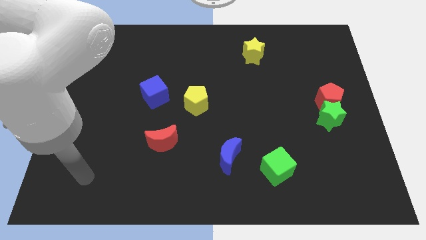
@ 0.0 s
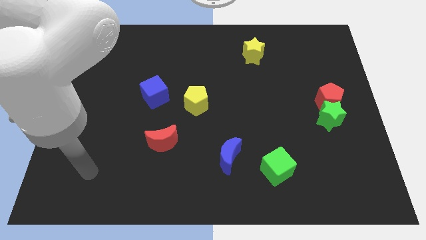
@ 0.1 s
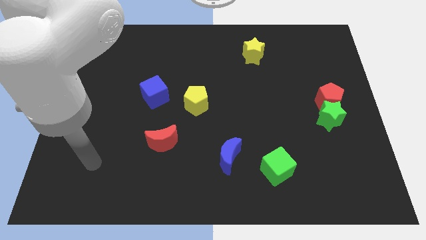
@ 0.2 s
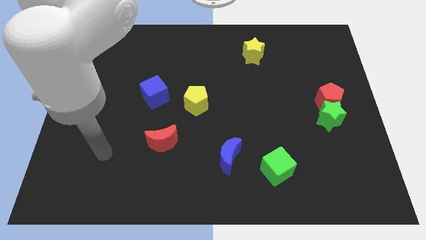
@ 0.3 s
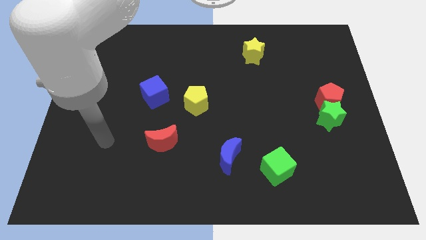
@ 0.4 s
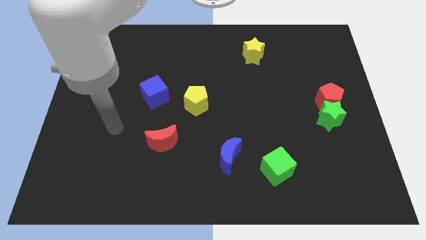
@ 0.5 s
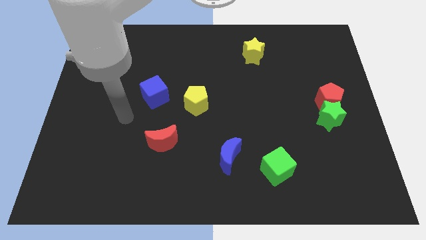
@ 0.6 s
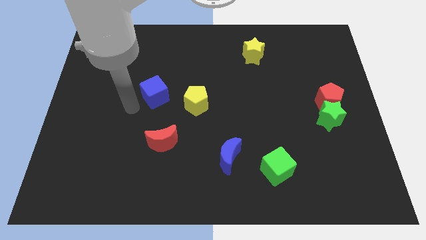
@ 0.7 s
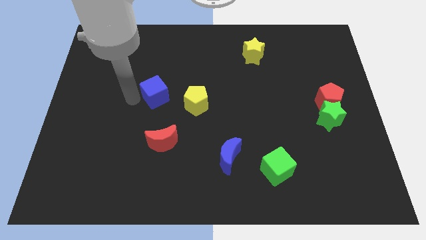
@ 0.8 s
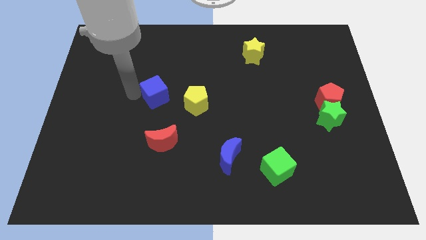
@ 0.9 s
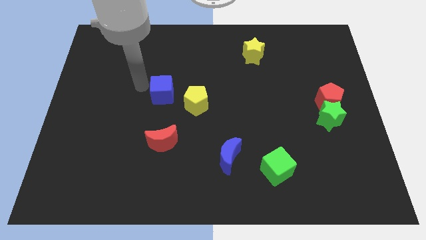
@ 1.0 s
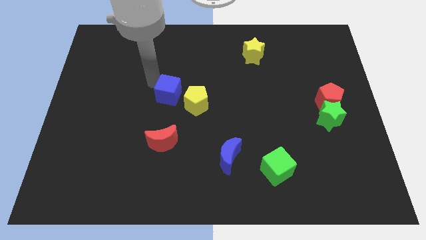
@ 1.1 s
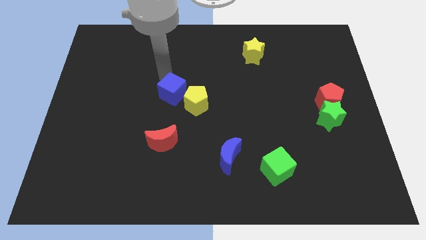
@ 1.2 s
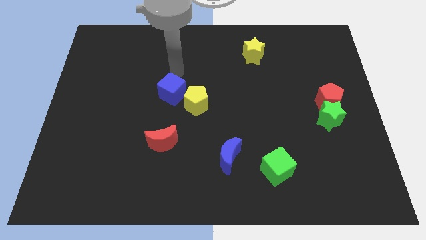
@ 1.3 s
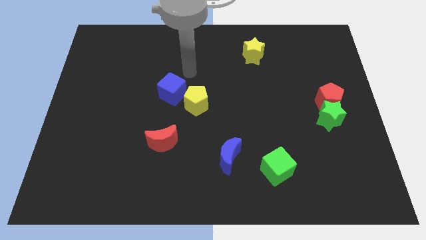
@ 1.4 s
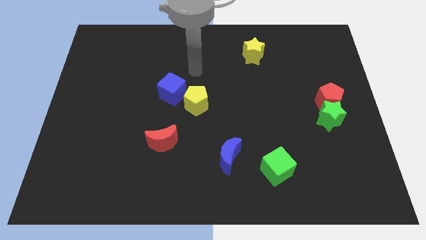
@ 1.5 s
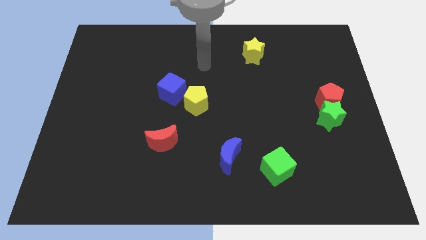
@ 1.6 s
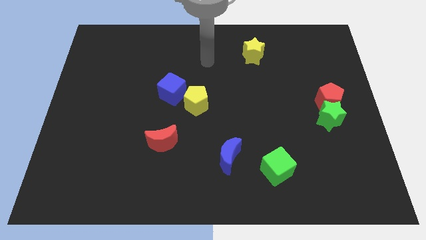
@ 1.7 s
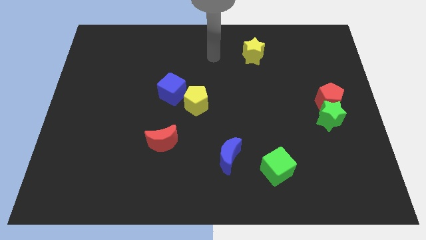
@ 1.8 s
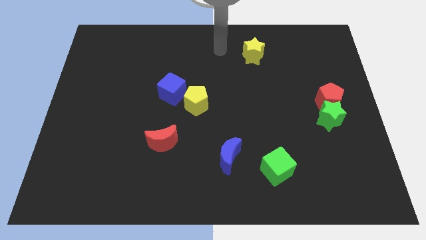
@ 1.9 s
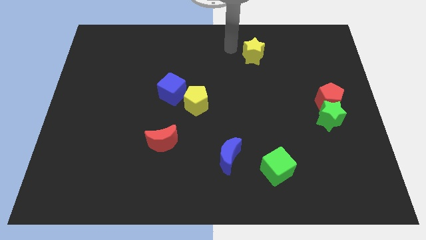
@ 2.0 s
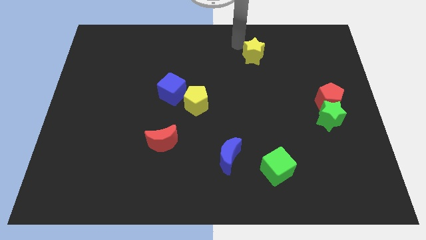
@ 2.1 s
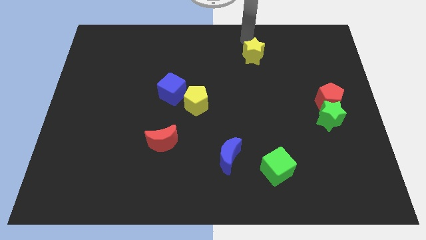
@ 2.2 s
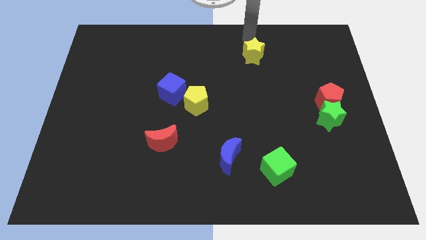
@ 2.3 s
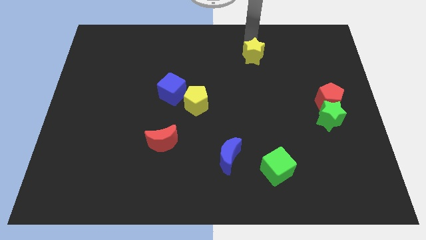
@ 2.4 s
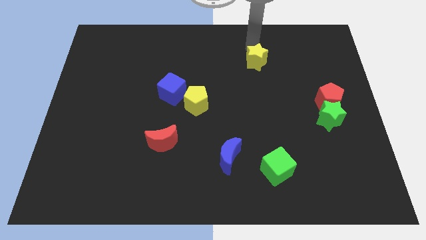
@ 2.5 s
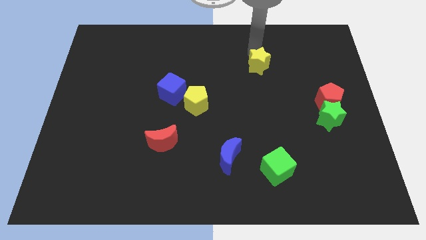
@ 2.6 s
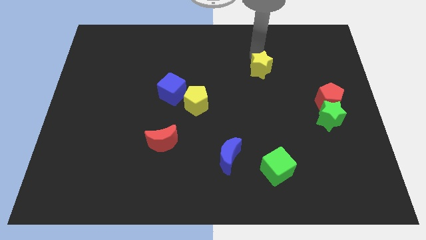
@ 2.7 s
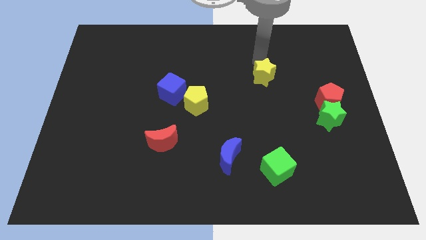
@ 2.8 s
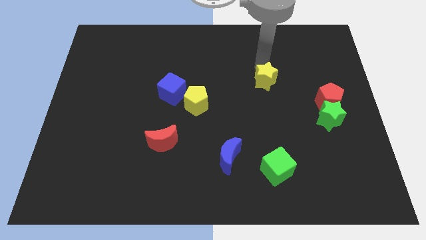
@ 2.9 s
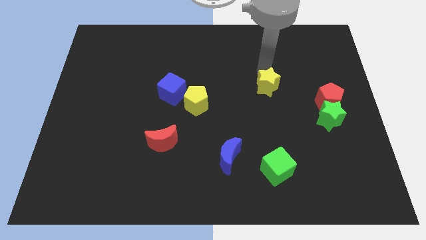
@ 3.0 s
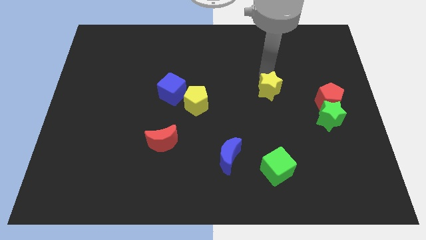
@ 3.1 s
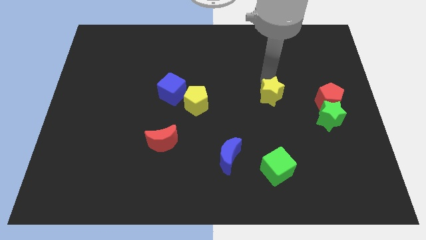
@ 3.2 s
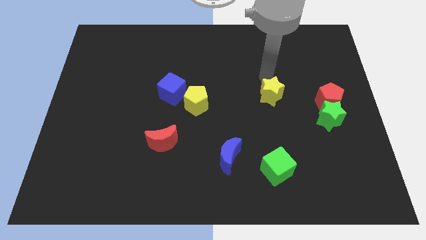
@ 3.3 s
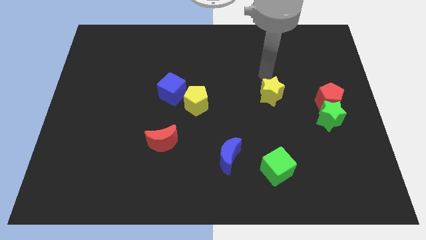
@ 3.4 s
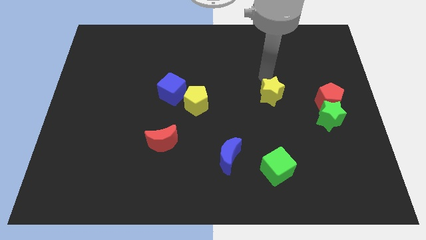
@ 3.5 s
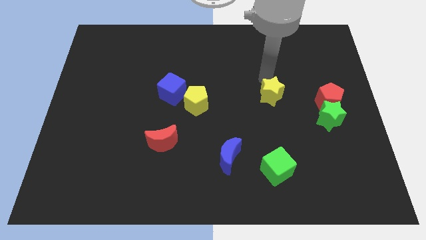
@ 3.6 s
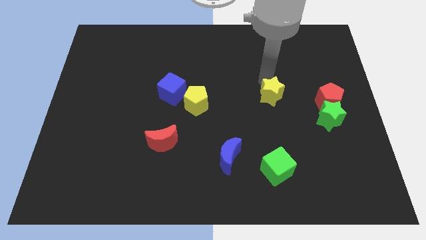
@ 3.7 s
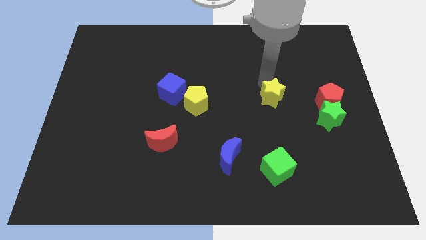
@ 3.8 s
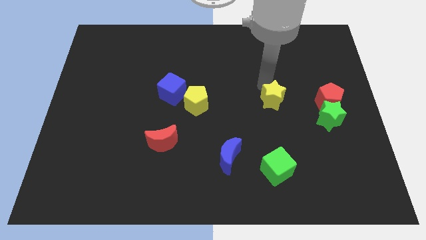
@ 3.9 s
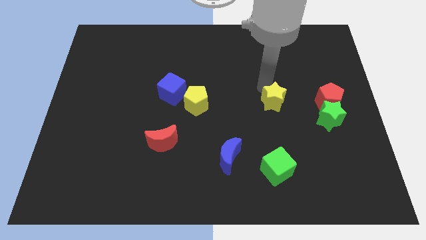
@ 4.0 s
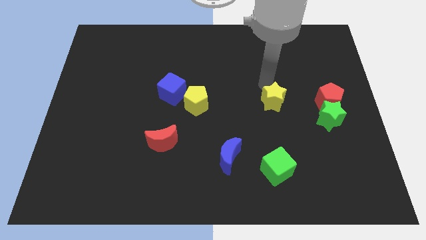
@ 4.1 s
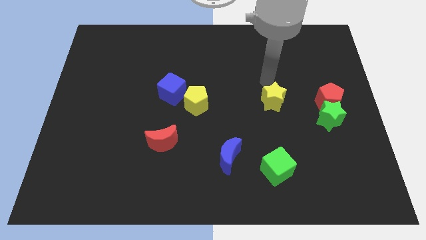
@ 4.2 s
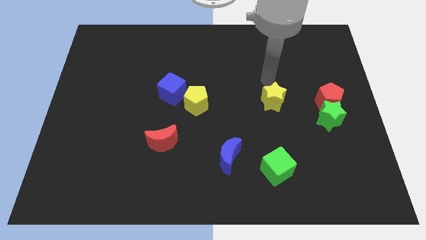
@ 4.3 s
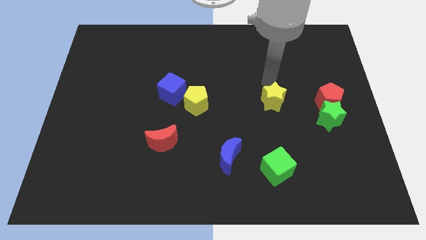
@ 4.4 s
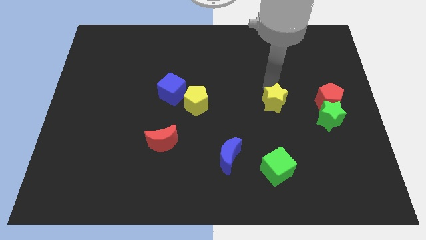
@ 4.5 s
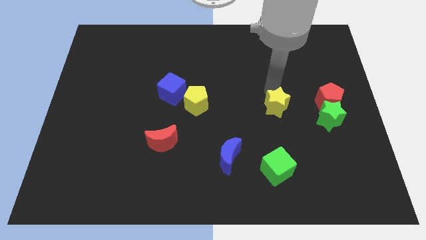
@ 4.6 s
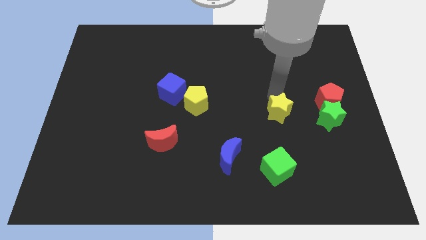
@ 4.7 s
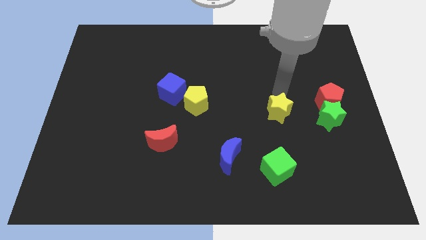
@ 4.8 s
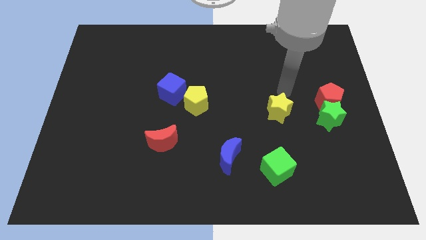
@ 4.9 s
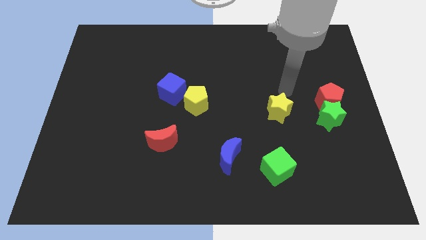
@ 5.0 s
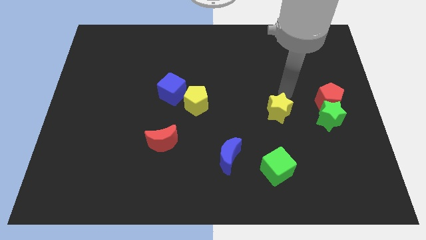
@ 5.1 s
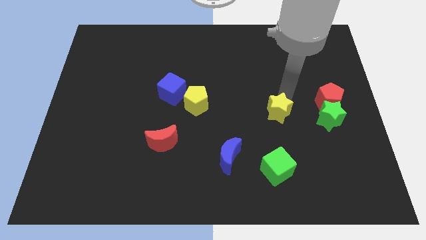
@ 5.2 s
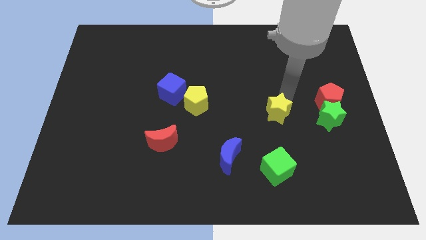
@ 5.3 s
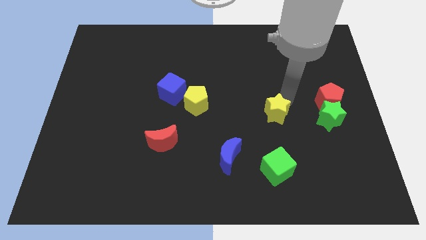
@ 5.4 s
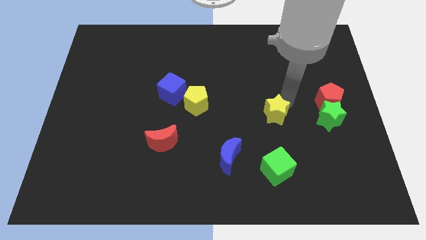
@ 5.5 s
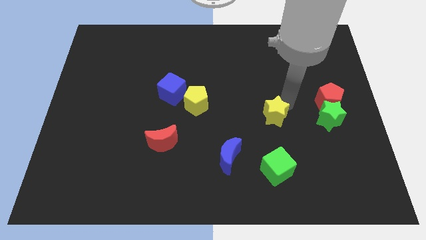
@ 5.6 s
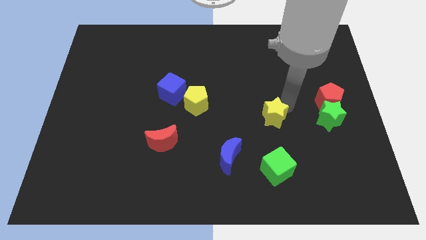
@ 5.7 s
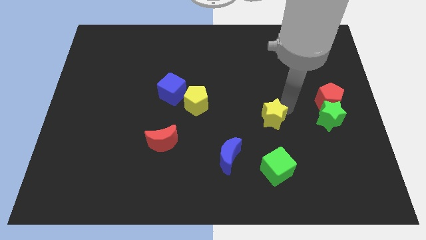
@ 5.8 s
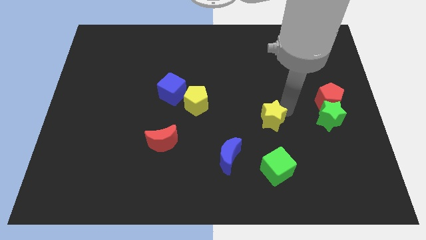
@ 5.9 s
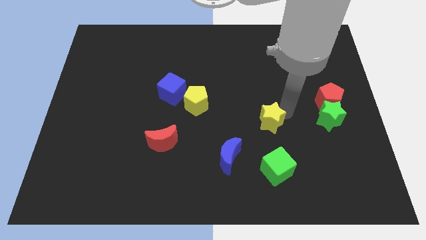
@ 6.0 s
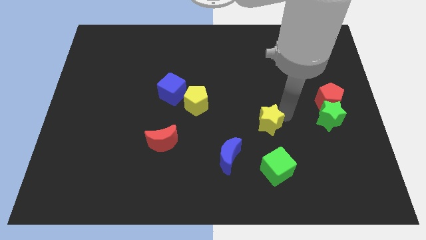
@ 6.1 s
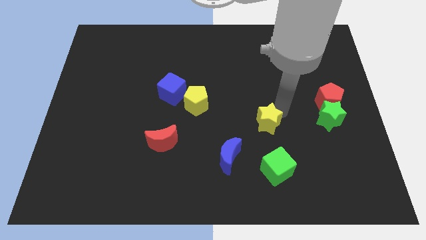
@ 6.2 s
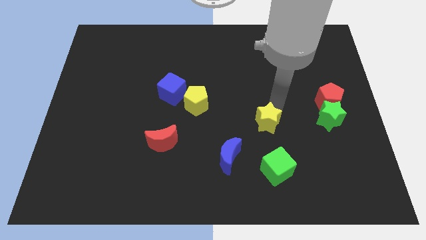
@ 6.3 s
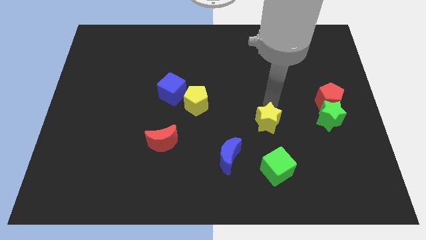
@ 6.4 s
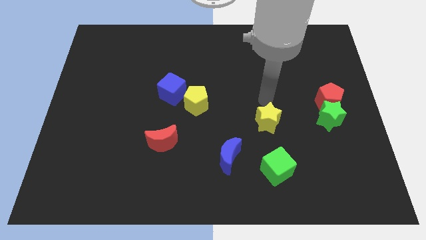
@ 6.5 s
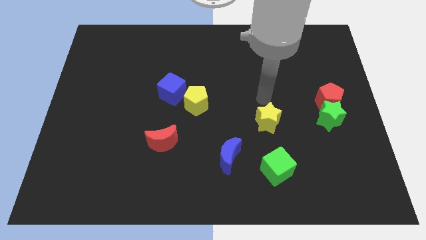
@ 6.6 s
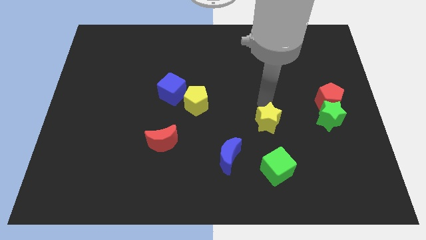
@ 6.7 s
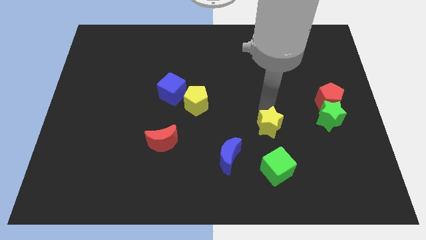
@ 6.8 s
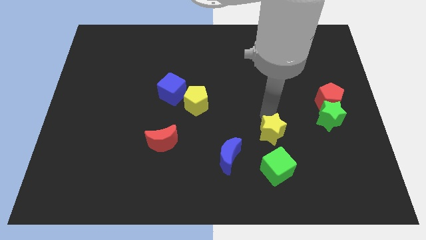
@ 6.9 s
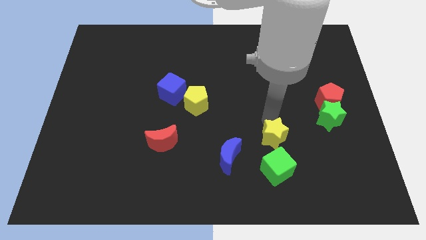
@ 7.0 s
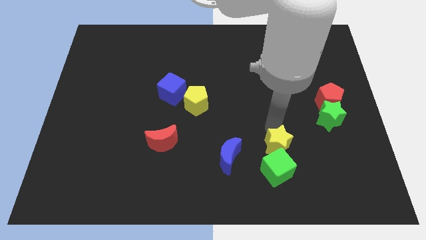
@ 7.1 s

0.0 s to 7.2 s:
move the yellow star to the green cube
